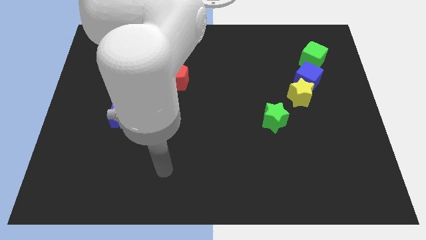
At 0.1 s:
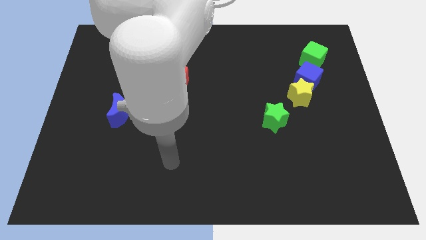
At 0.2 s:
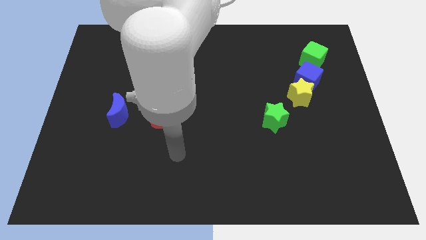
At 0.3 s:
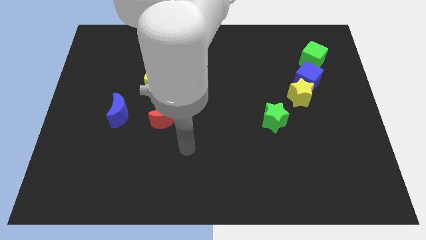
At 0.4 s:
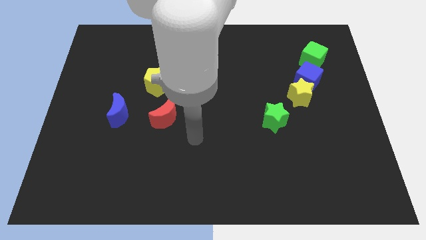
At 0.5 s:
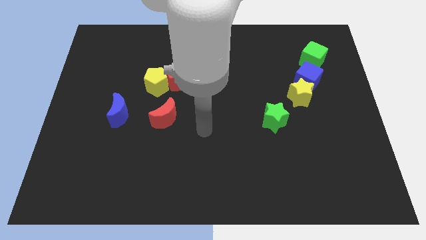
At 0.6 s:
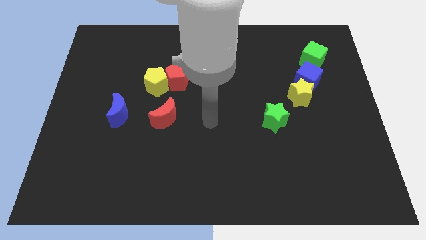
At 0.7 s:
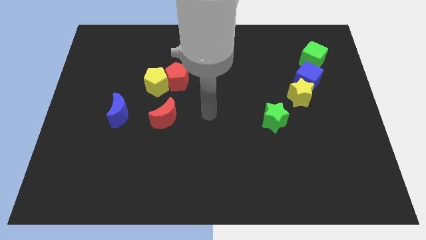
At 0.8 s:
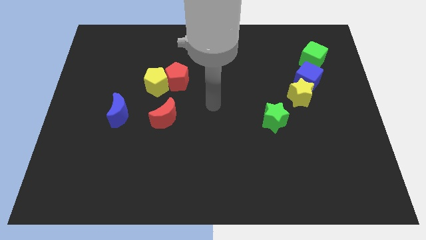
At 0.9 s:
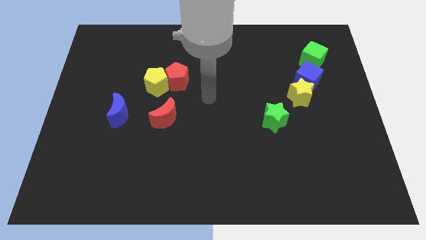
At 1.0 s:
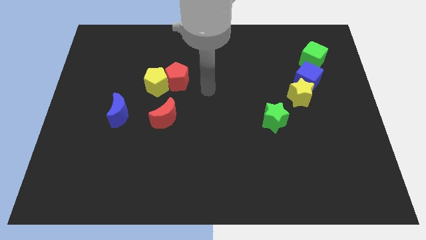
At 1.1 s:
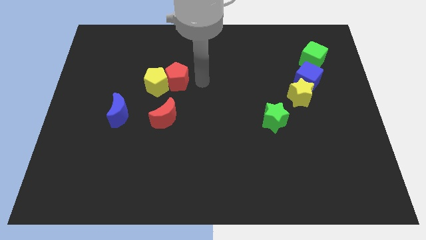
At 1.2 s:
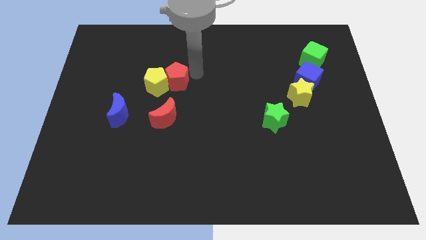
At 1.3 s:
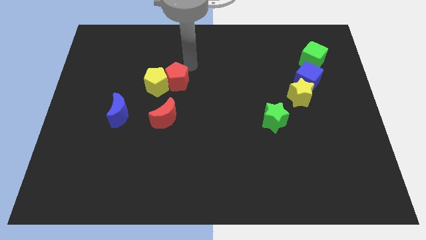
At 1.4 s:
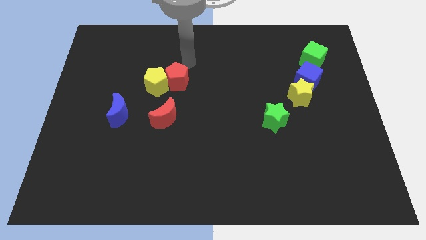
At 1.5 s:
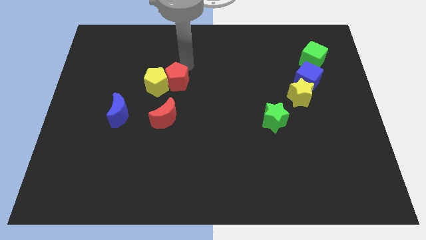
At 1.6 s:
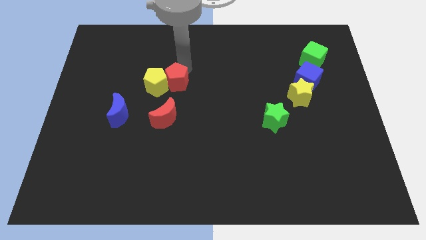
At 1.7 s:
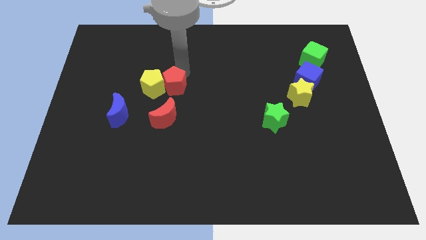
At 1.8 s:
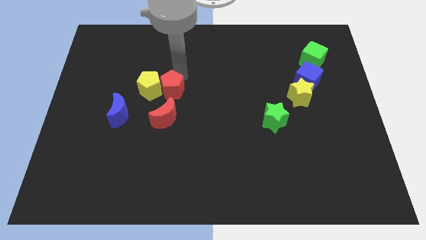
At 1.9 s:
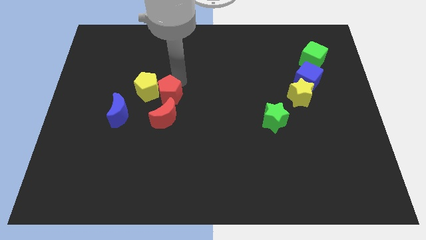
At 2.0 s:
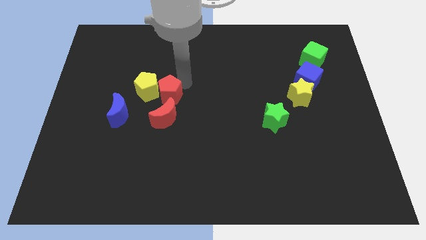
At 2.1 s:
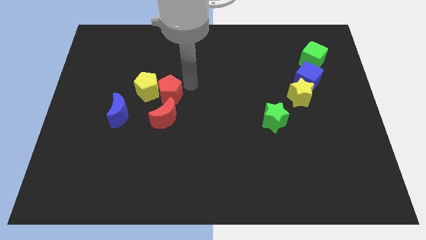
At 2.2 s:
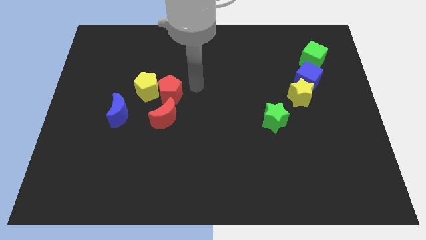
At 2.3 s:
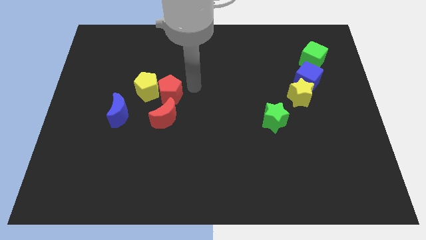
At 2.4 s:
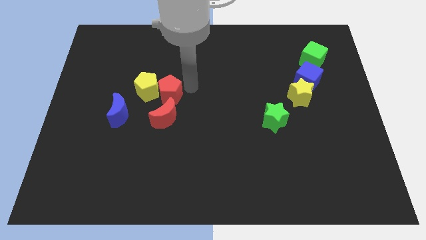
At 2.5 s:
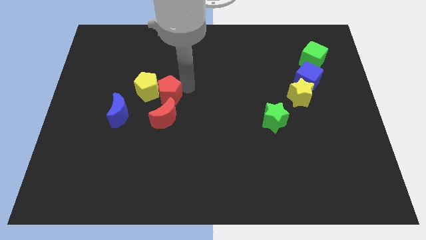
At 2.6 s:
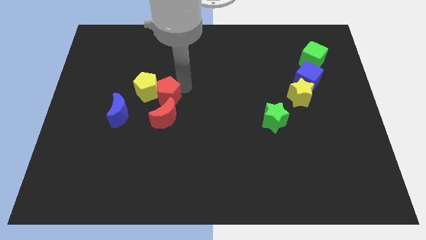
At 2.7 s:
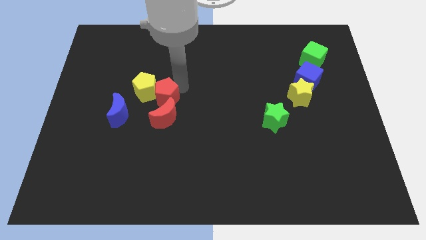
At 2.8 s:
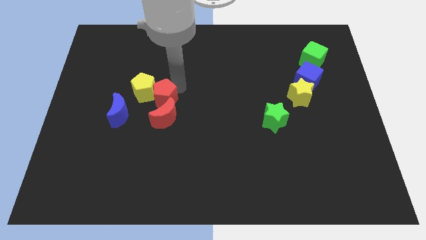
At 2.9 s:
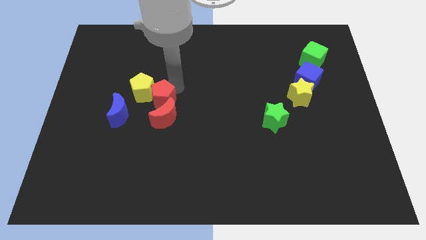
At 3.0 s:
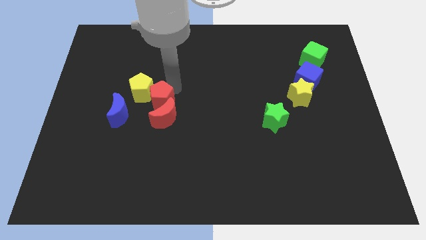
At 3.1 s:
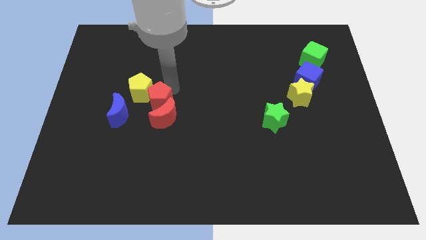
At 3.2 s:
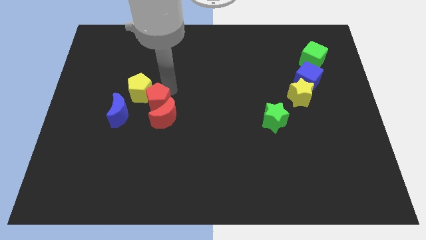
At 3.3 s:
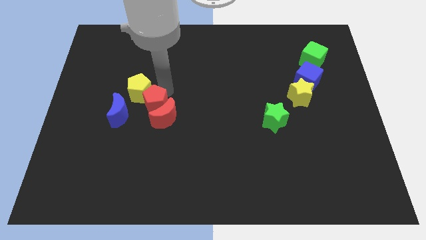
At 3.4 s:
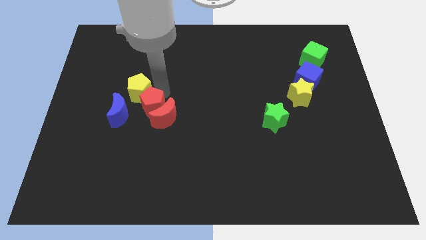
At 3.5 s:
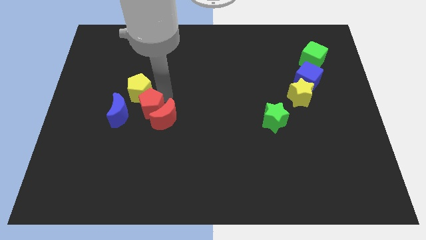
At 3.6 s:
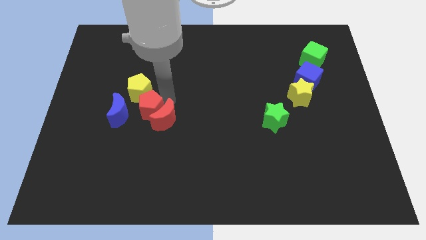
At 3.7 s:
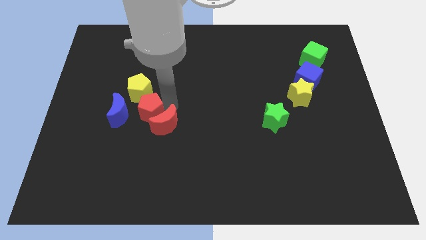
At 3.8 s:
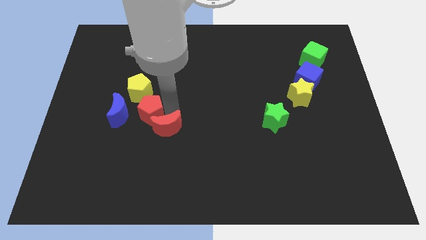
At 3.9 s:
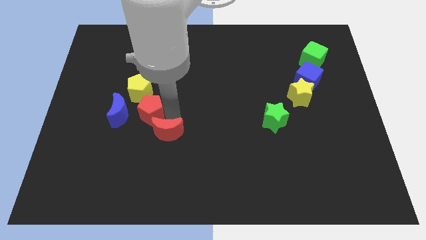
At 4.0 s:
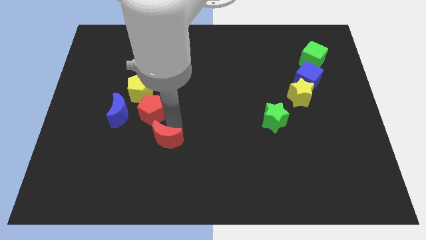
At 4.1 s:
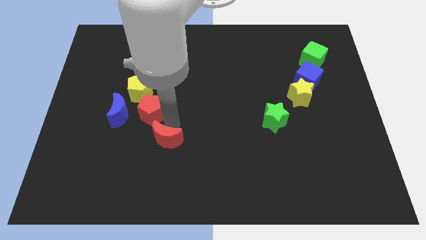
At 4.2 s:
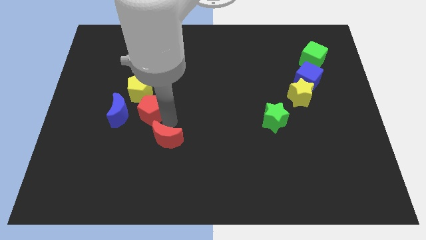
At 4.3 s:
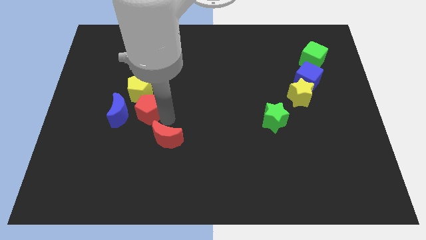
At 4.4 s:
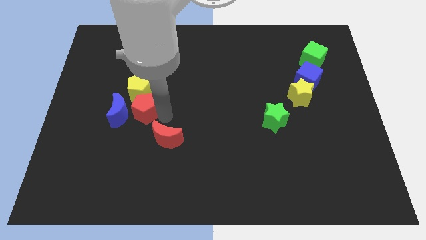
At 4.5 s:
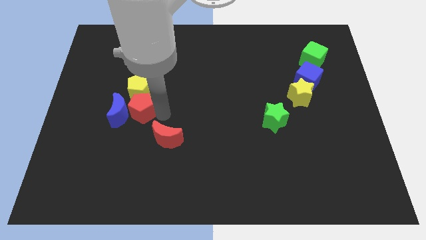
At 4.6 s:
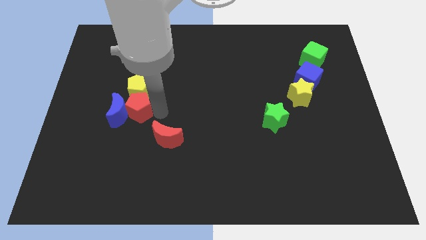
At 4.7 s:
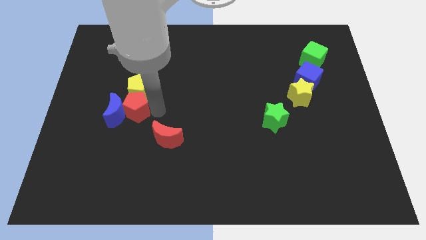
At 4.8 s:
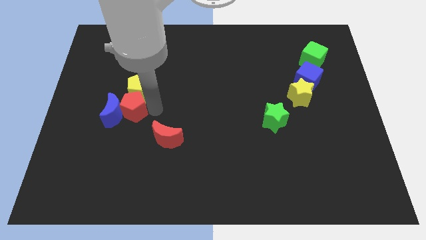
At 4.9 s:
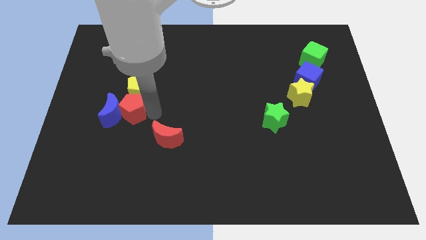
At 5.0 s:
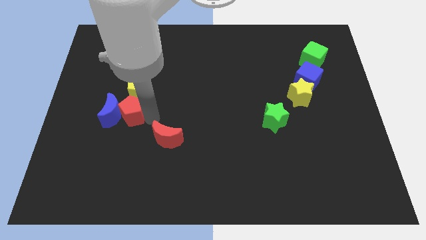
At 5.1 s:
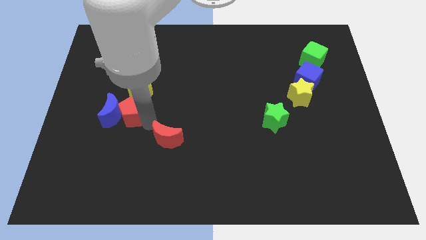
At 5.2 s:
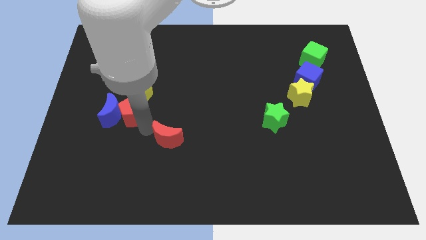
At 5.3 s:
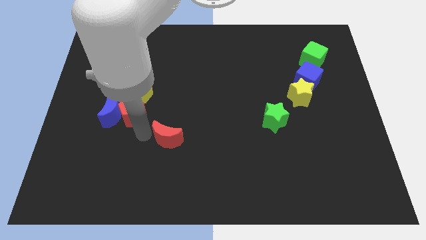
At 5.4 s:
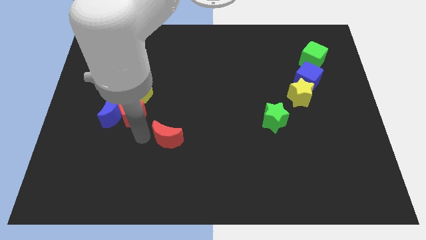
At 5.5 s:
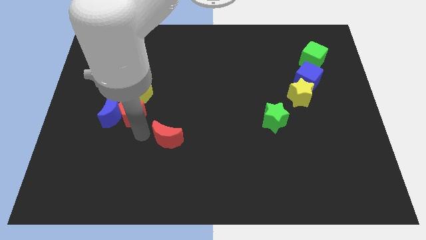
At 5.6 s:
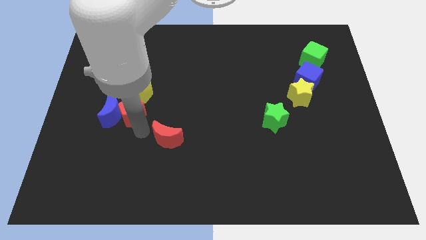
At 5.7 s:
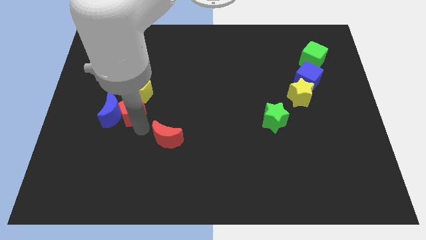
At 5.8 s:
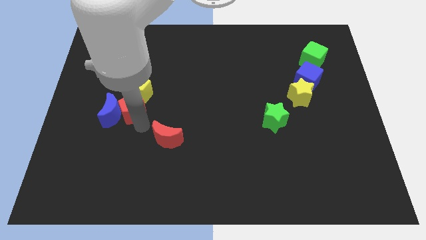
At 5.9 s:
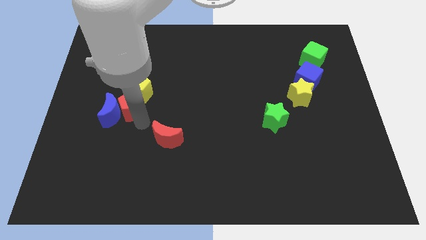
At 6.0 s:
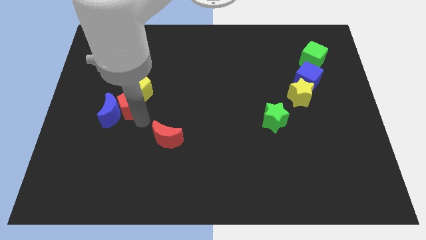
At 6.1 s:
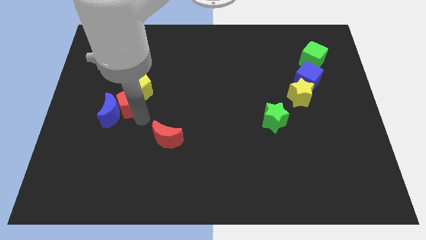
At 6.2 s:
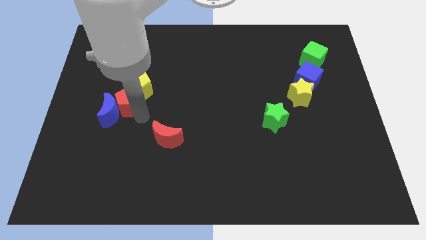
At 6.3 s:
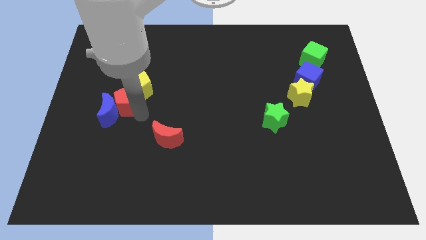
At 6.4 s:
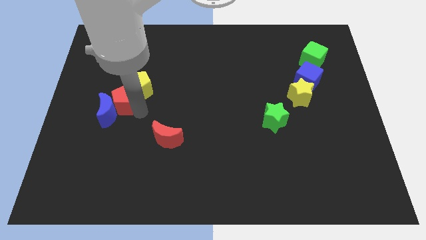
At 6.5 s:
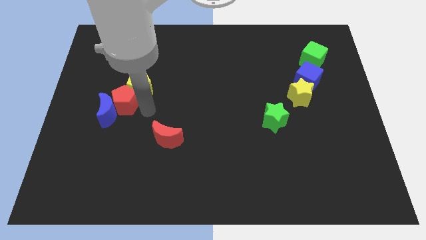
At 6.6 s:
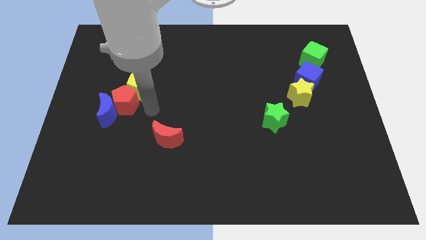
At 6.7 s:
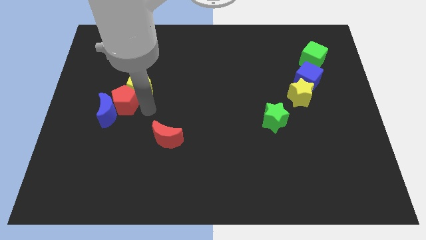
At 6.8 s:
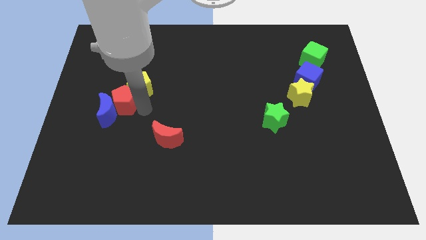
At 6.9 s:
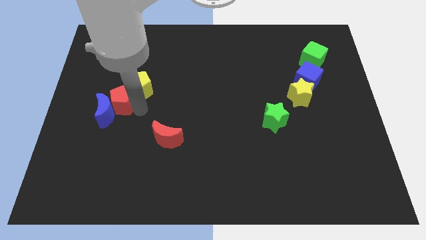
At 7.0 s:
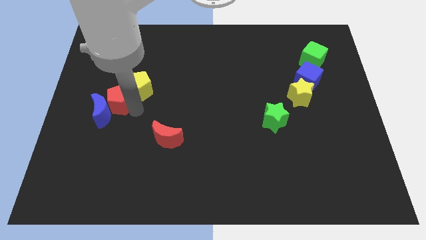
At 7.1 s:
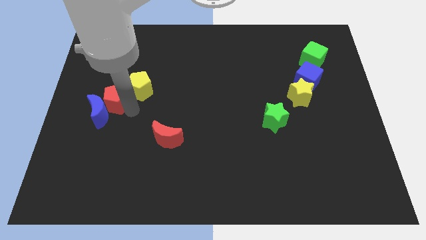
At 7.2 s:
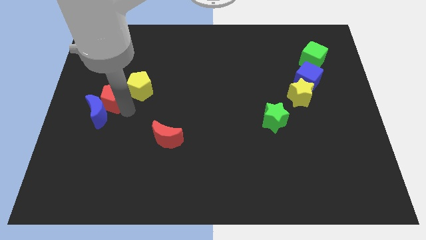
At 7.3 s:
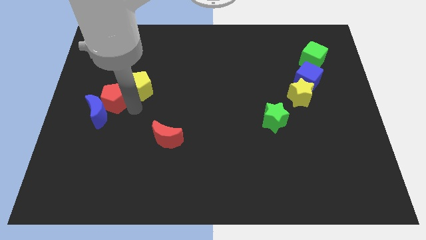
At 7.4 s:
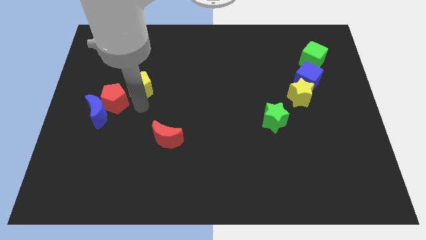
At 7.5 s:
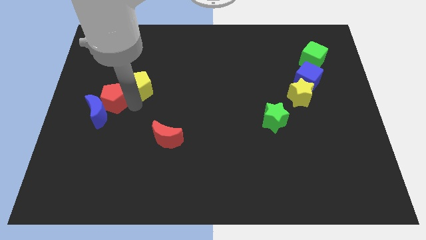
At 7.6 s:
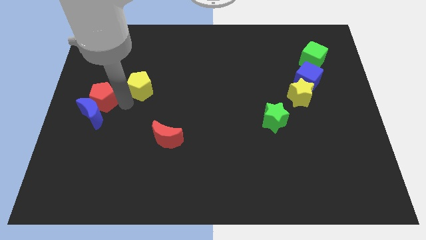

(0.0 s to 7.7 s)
move the red pentagon diagonally up and to the left of the blue moon

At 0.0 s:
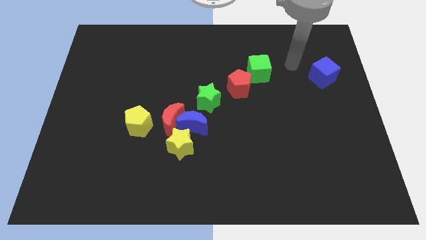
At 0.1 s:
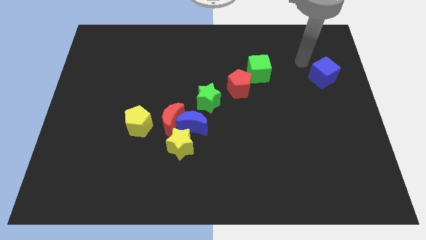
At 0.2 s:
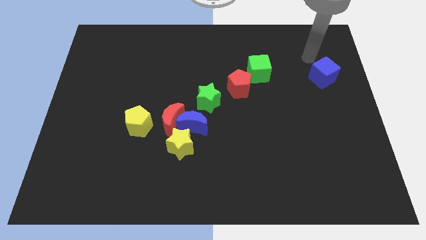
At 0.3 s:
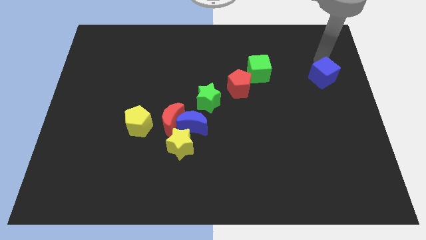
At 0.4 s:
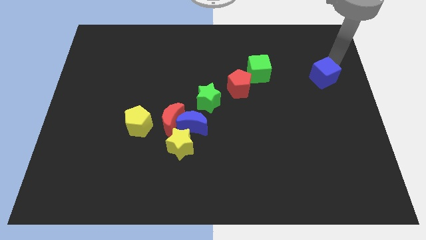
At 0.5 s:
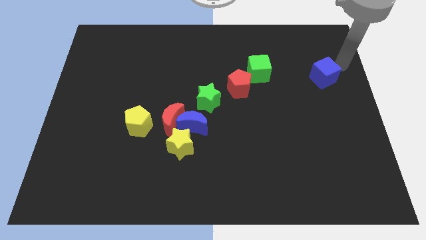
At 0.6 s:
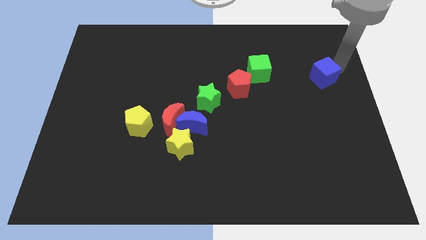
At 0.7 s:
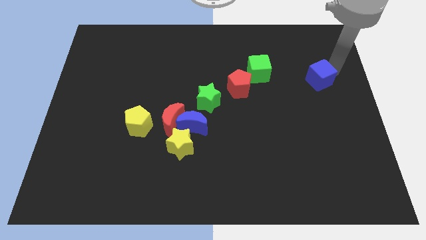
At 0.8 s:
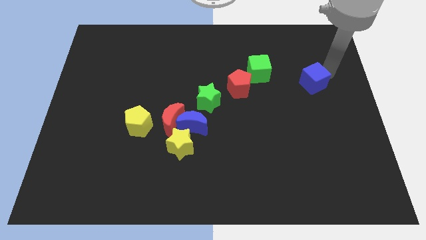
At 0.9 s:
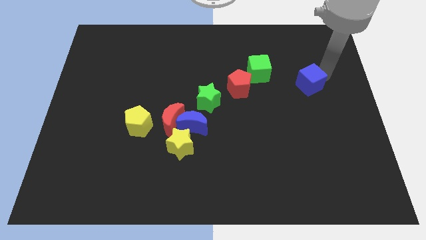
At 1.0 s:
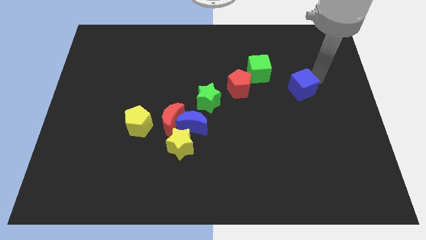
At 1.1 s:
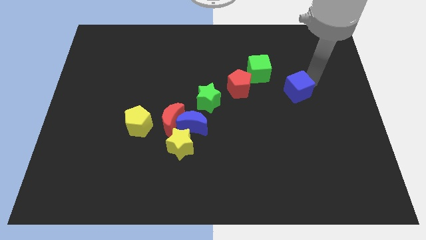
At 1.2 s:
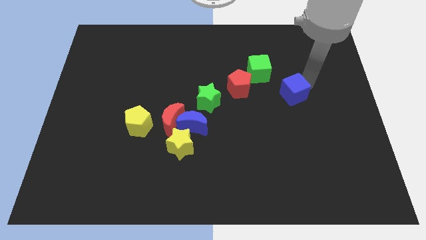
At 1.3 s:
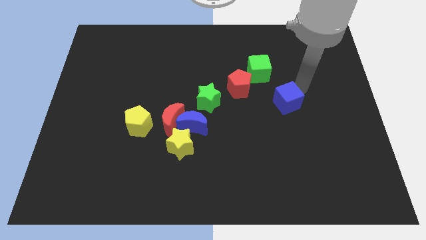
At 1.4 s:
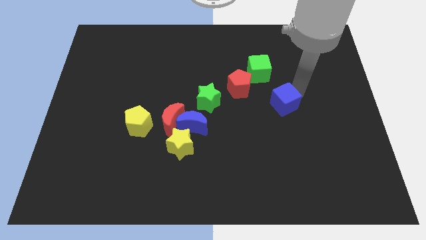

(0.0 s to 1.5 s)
slide the blue cube to the bottom right of the red pentagon
